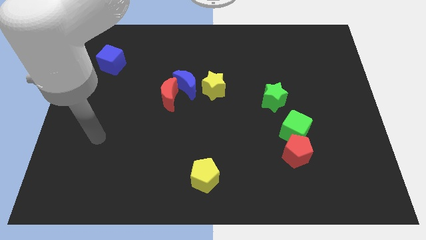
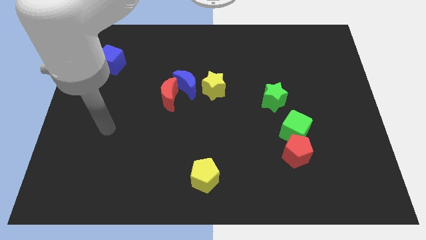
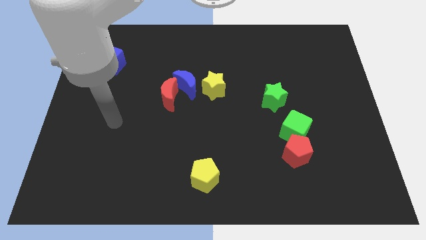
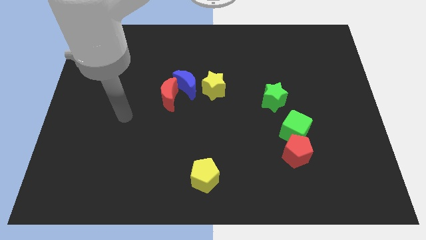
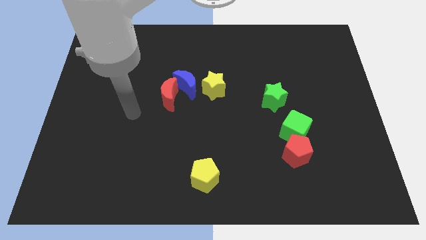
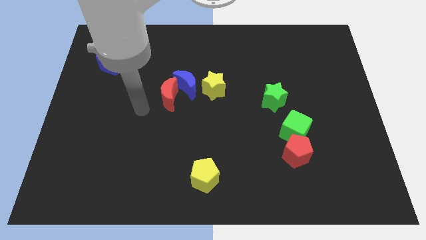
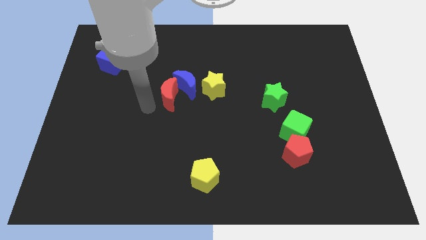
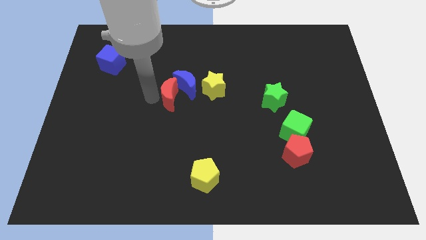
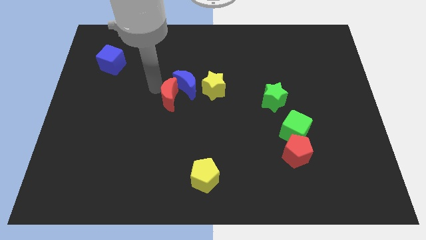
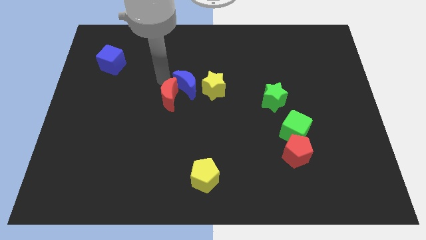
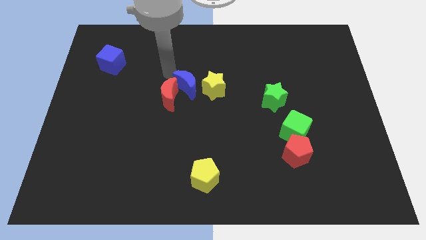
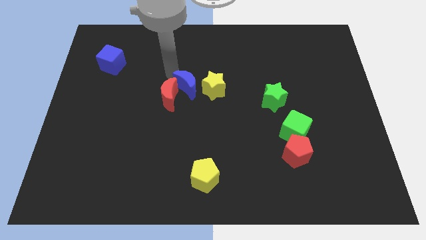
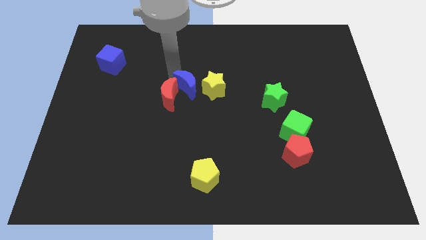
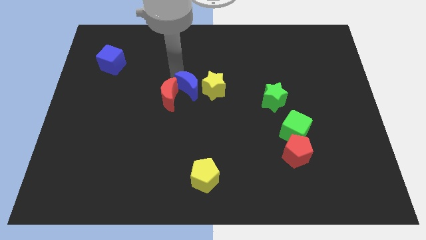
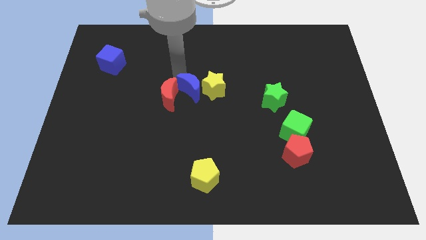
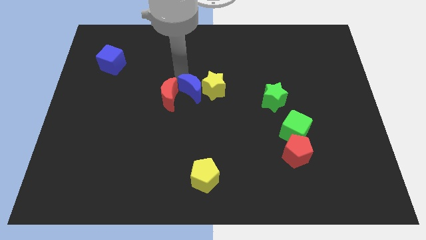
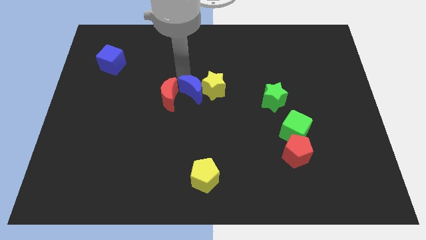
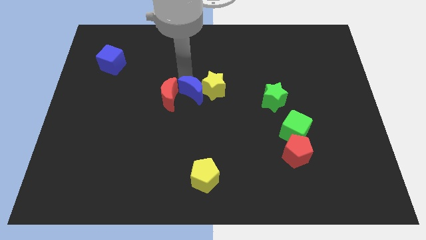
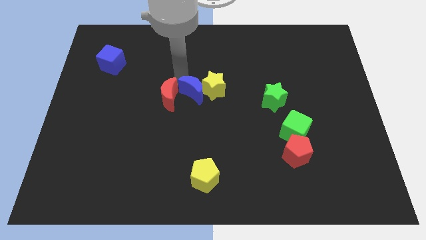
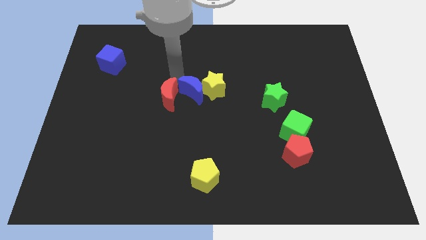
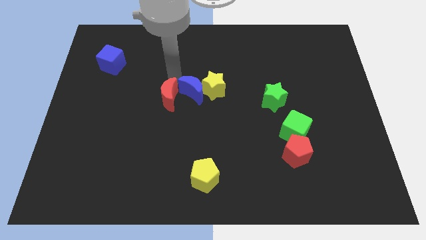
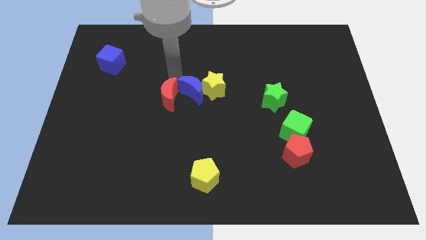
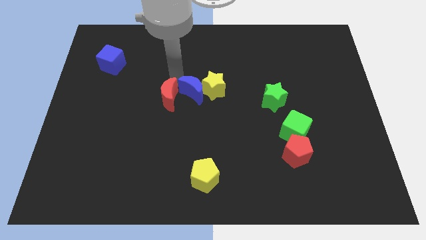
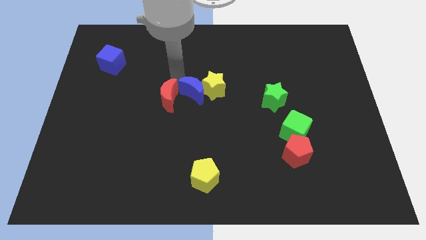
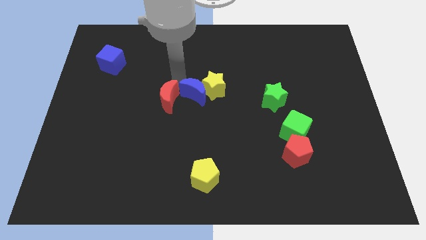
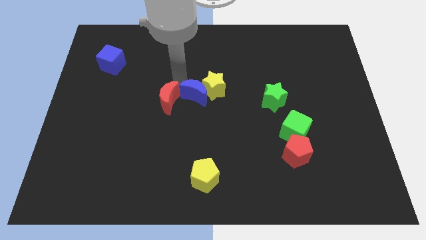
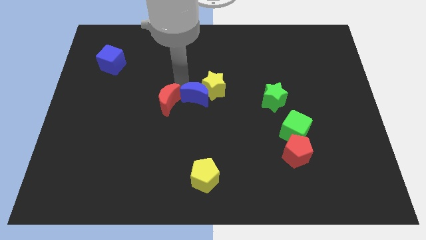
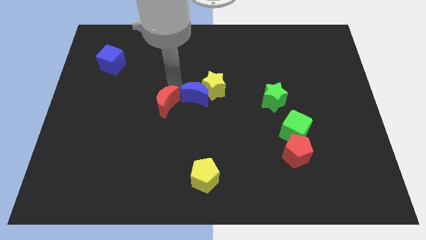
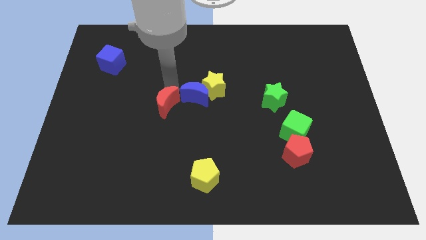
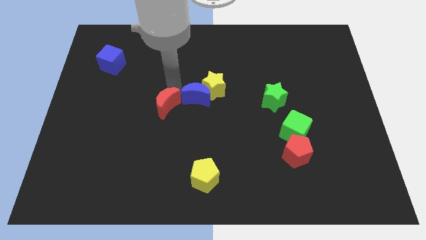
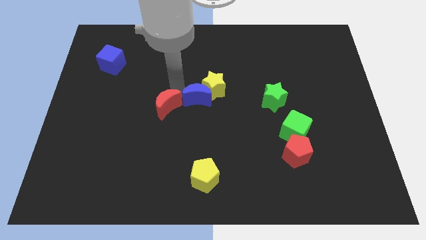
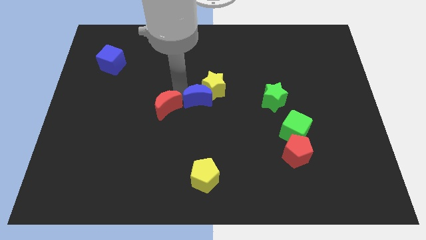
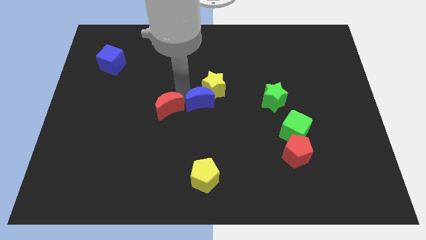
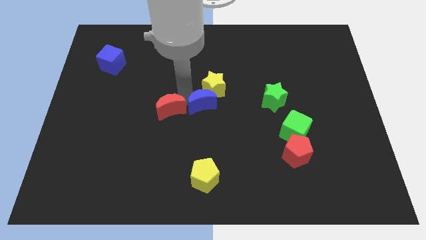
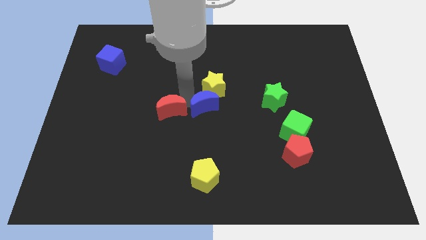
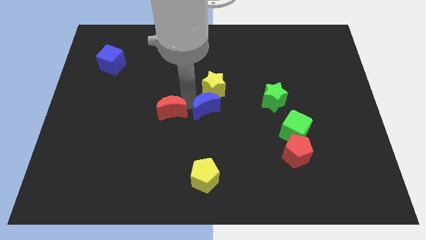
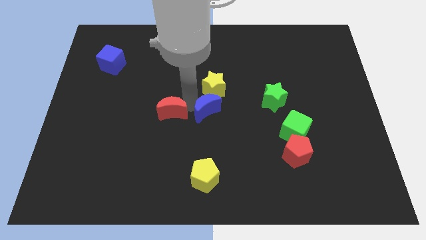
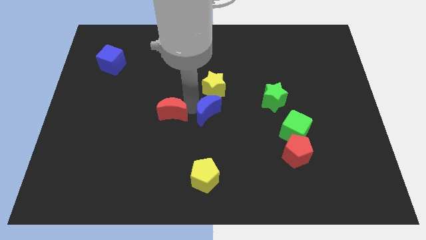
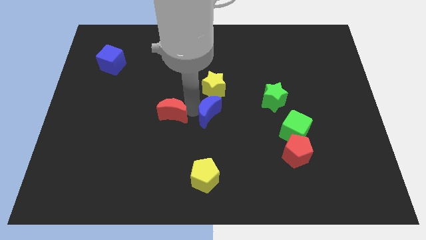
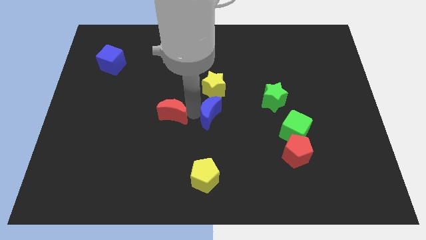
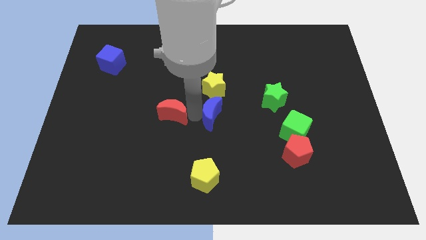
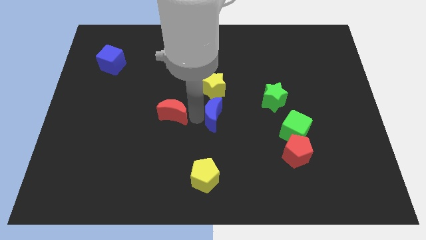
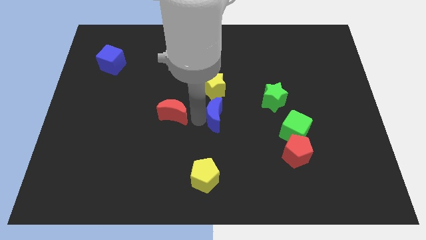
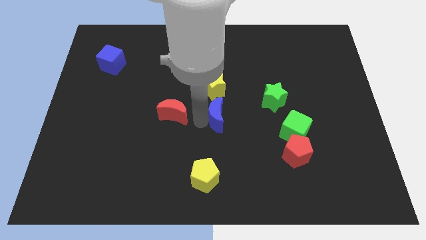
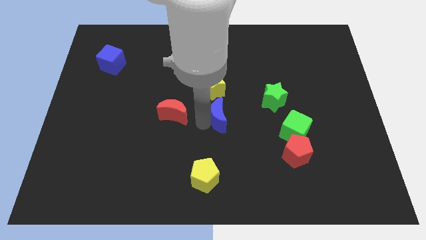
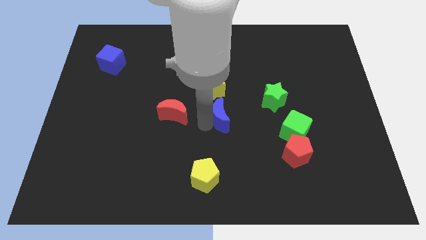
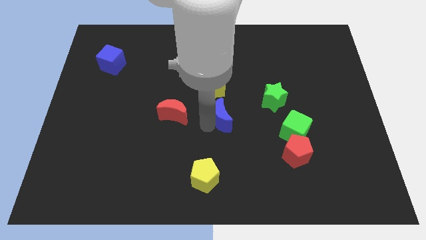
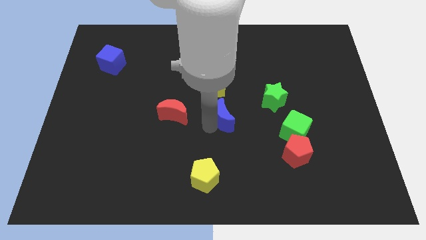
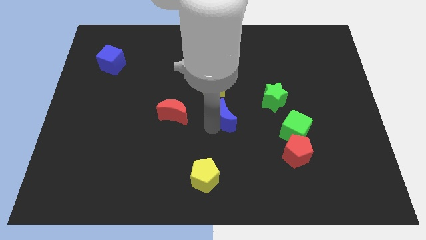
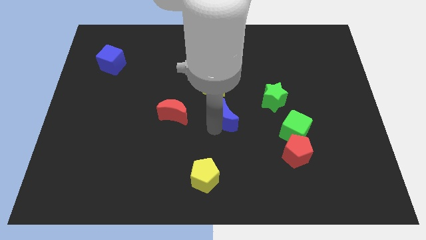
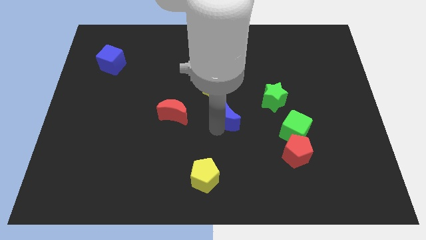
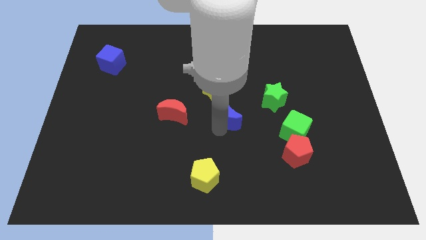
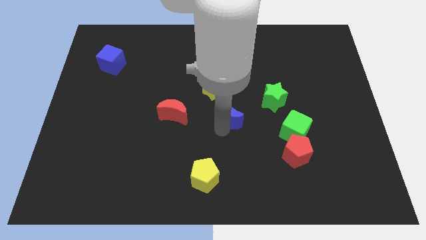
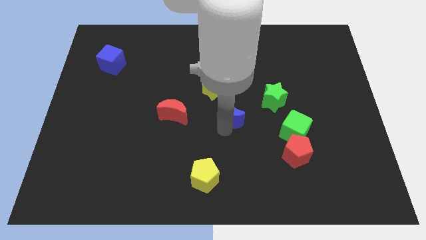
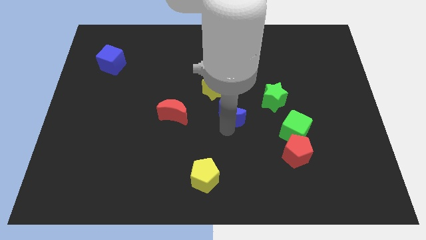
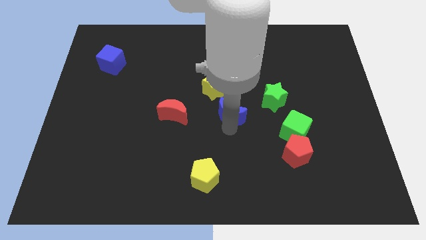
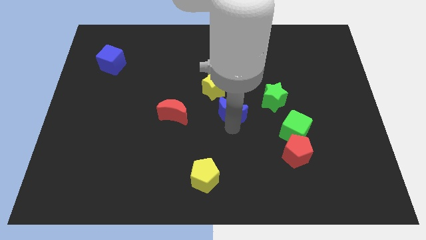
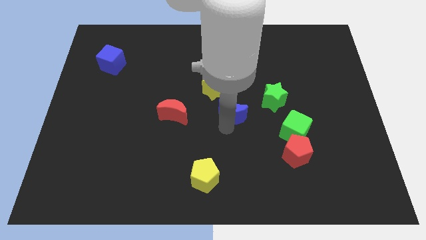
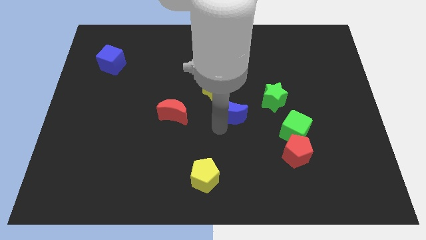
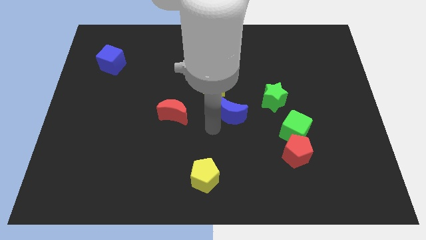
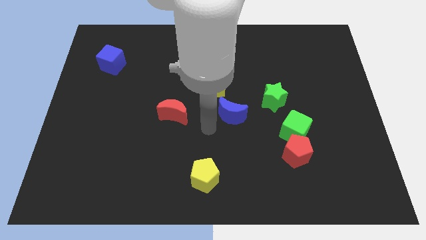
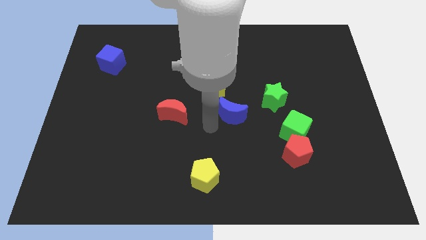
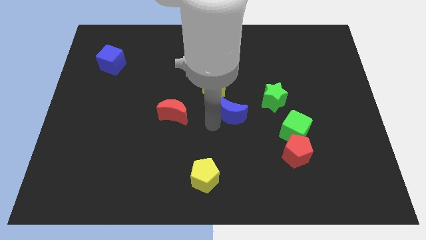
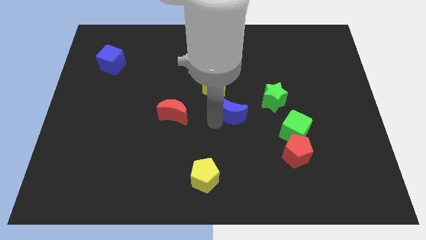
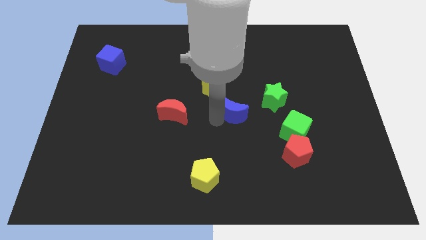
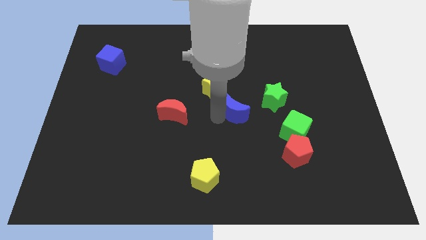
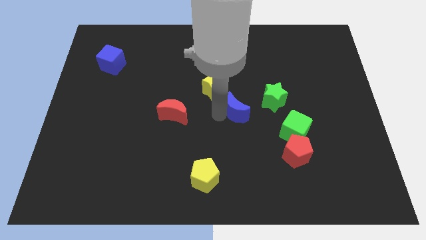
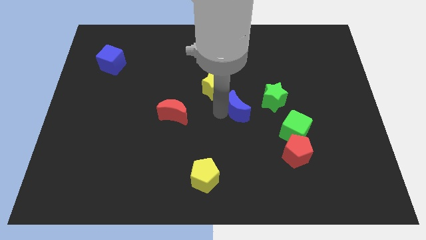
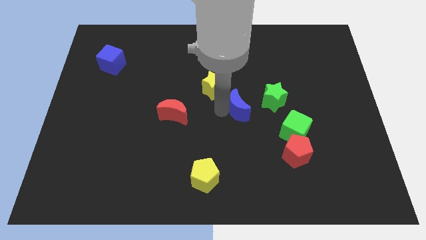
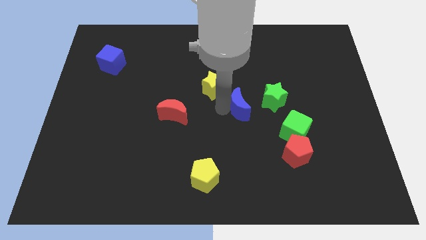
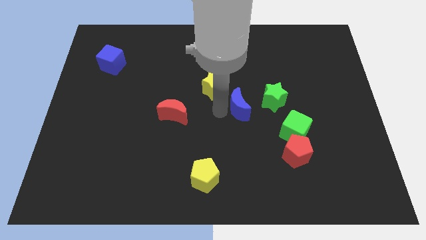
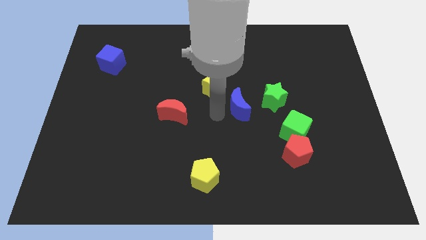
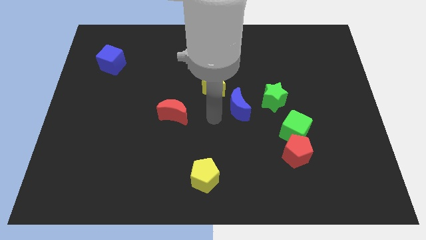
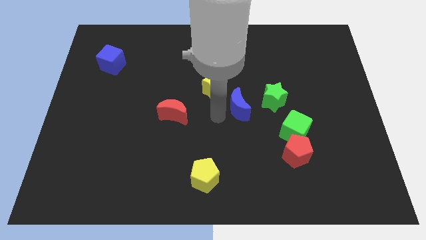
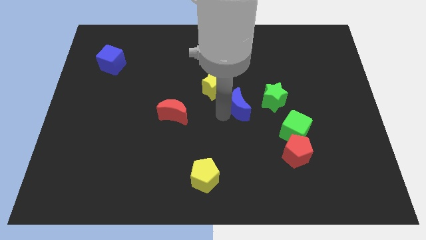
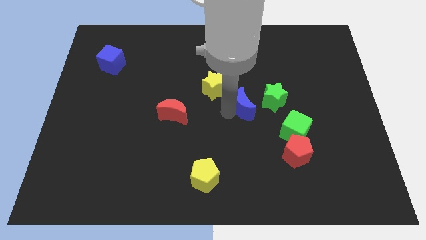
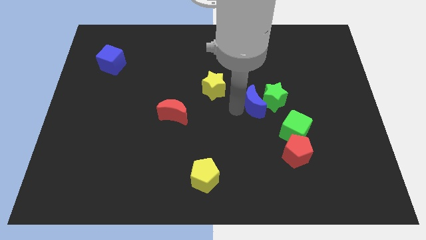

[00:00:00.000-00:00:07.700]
move the blue moon close to the green star
